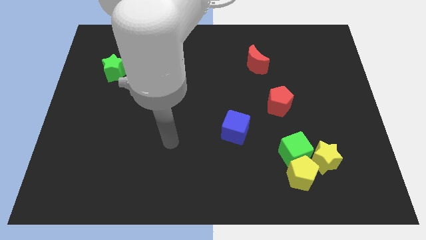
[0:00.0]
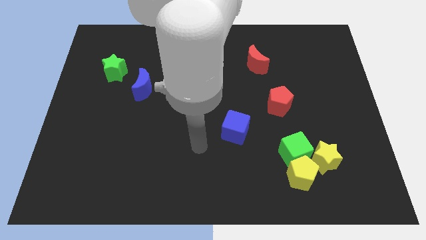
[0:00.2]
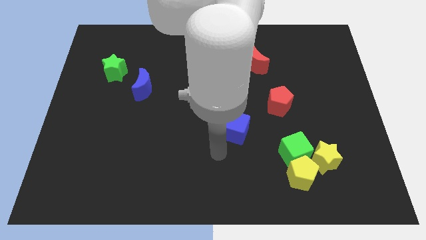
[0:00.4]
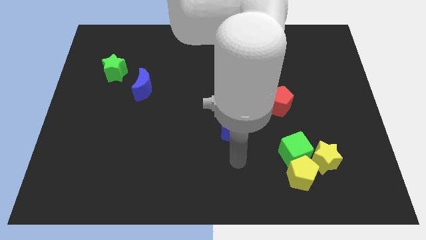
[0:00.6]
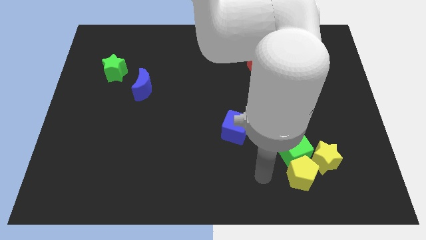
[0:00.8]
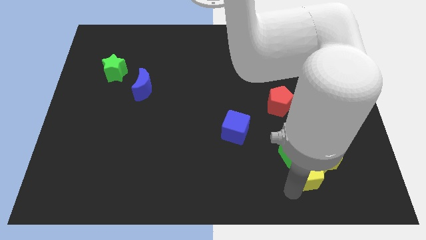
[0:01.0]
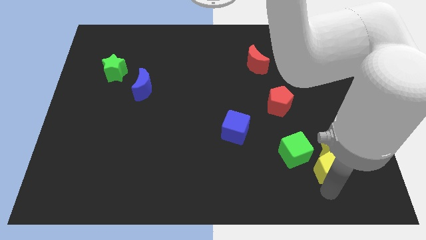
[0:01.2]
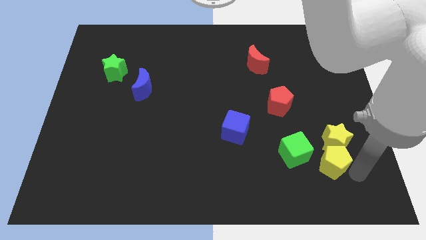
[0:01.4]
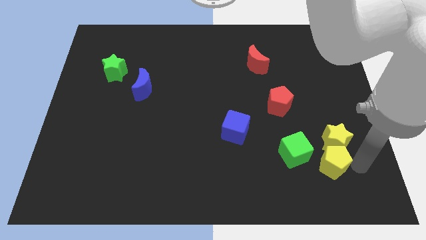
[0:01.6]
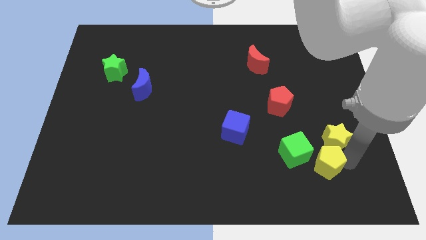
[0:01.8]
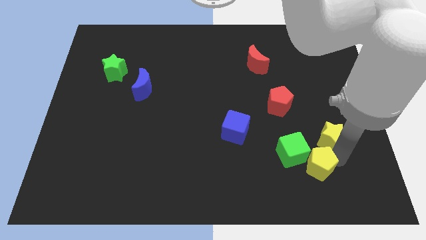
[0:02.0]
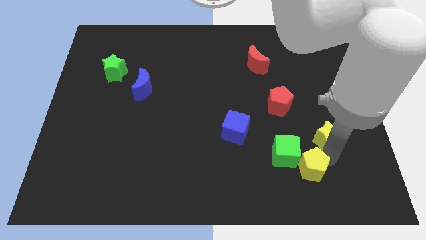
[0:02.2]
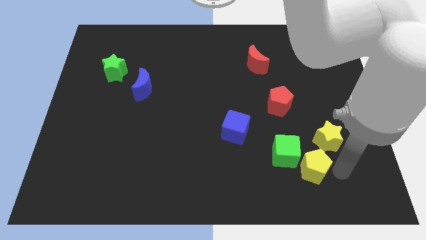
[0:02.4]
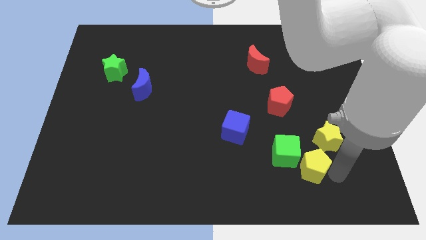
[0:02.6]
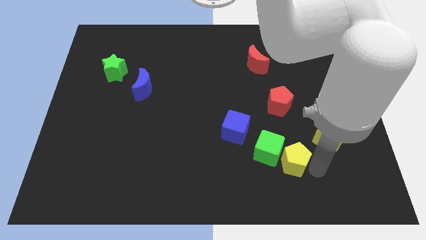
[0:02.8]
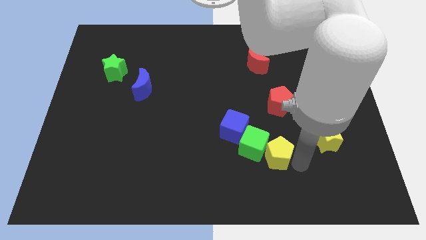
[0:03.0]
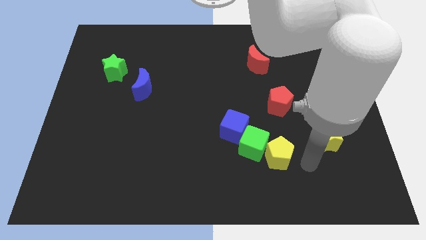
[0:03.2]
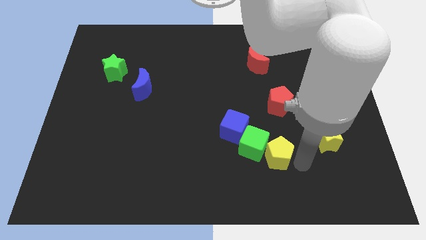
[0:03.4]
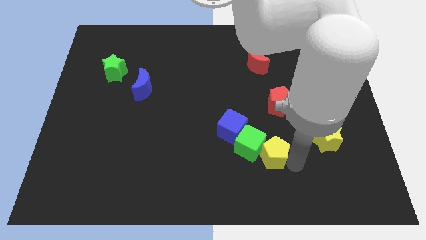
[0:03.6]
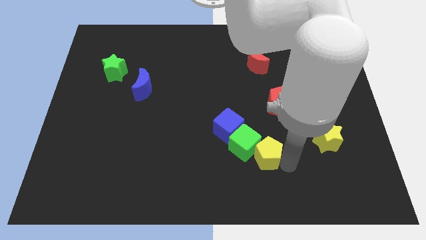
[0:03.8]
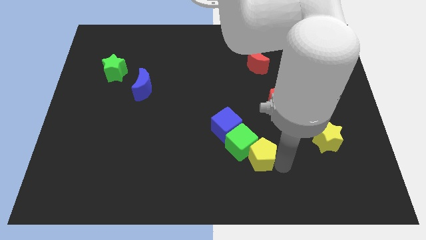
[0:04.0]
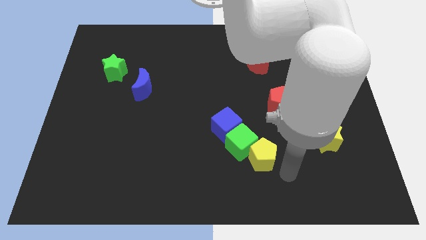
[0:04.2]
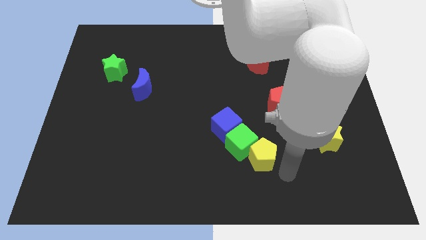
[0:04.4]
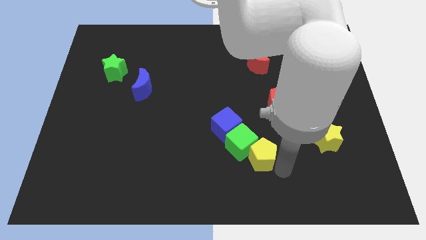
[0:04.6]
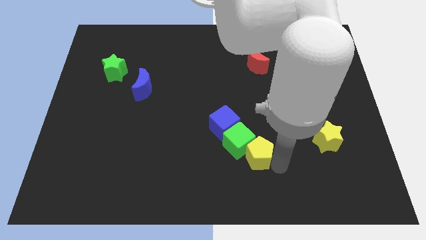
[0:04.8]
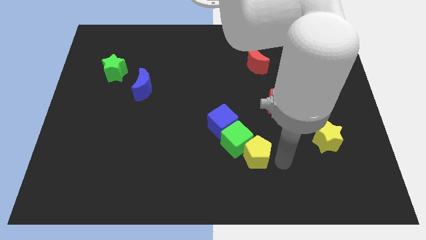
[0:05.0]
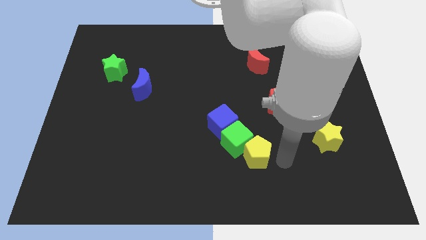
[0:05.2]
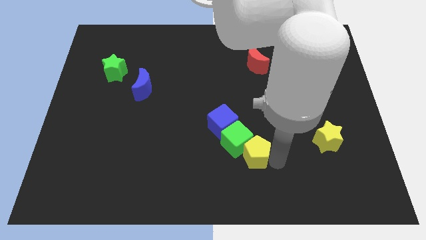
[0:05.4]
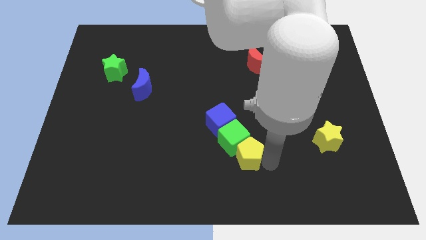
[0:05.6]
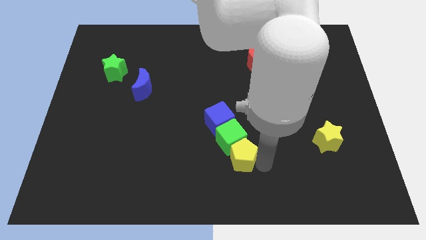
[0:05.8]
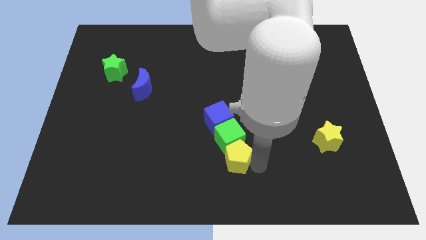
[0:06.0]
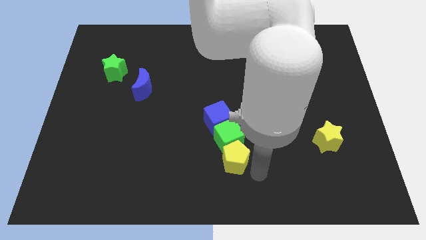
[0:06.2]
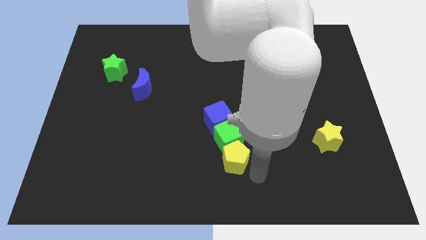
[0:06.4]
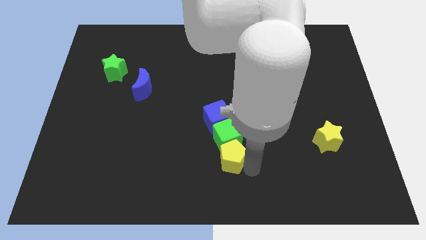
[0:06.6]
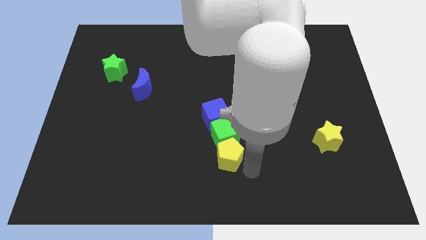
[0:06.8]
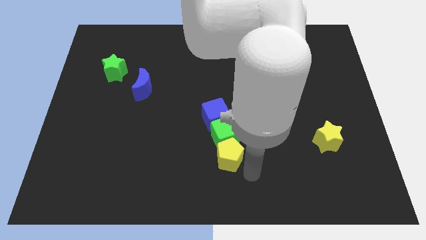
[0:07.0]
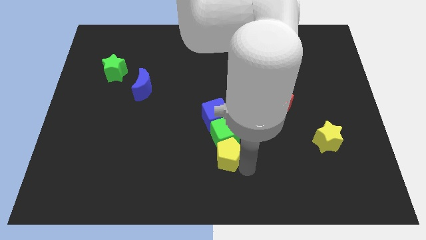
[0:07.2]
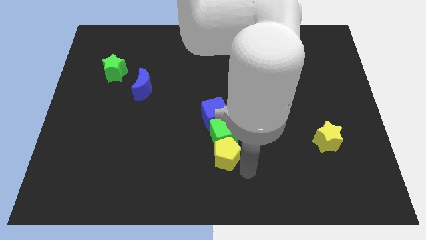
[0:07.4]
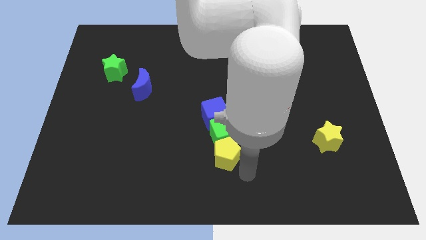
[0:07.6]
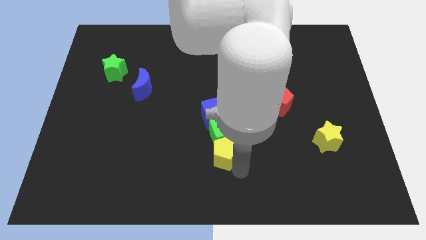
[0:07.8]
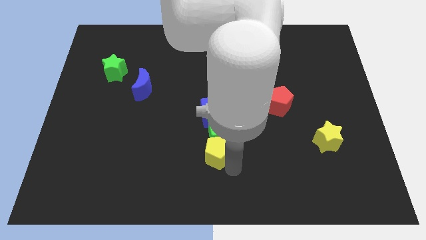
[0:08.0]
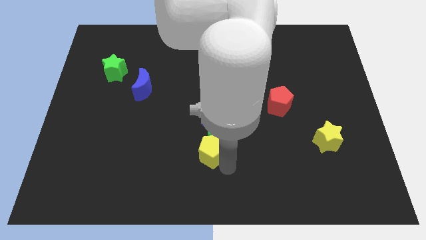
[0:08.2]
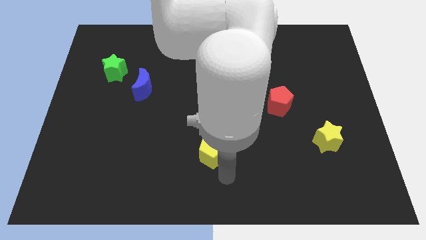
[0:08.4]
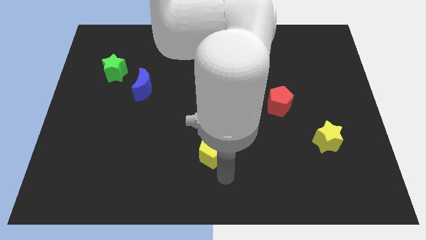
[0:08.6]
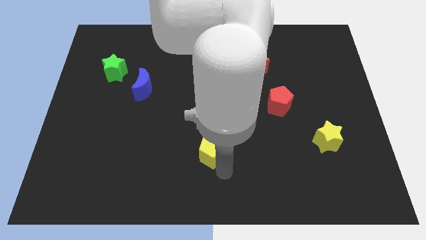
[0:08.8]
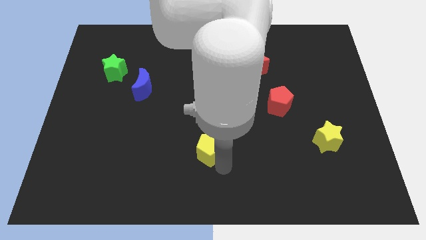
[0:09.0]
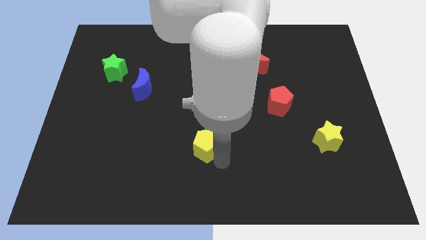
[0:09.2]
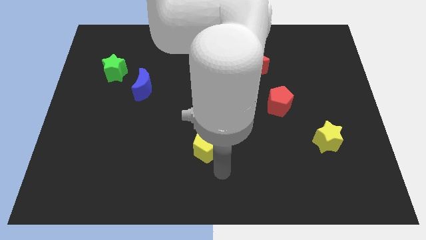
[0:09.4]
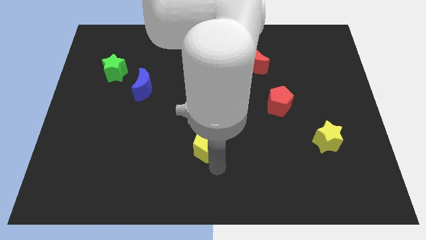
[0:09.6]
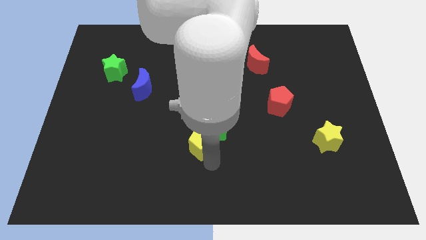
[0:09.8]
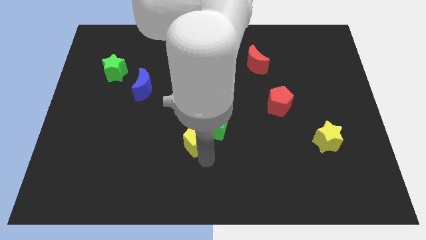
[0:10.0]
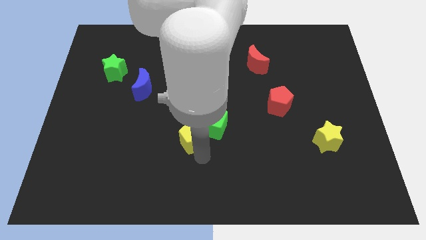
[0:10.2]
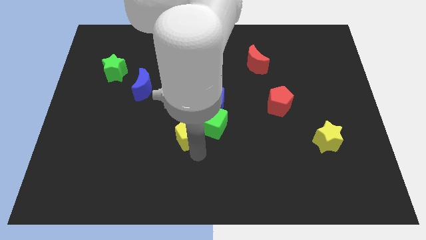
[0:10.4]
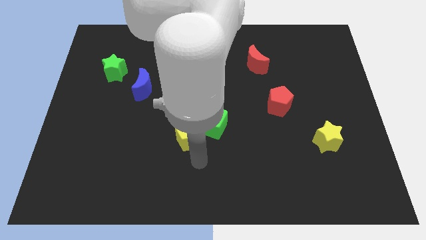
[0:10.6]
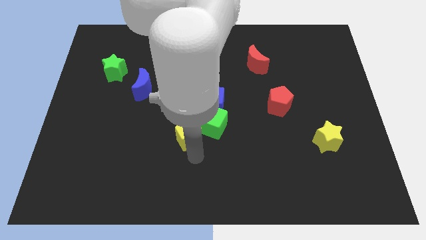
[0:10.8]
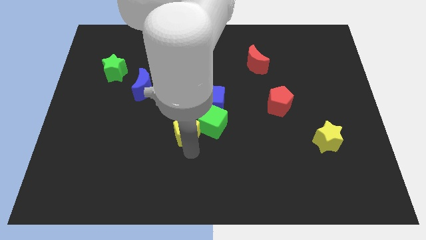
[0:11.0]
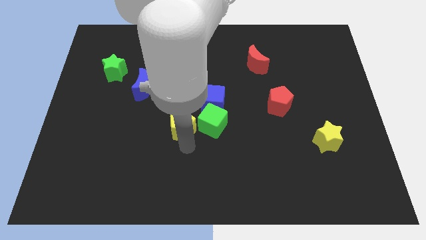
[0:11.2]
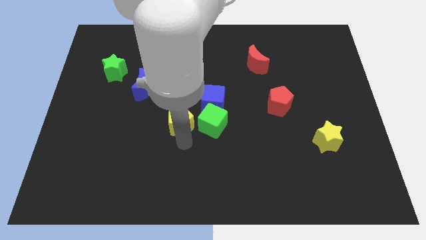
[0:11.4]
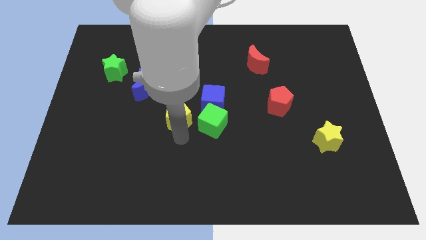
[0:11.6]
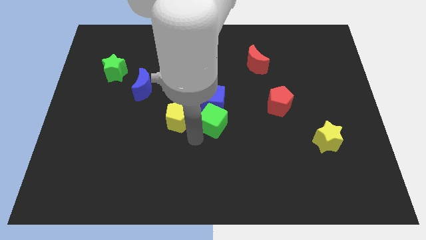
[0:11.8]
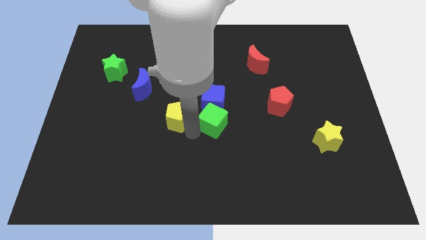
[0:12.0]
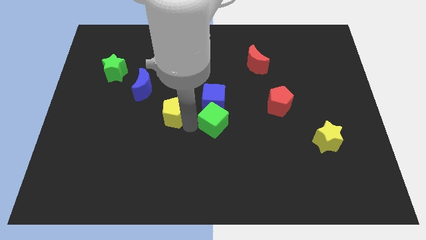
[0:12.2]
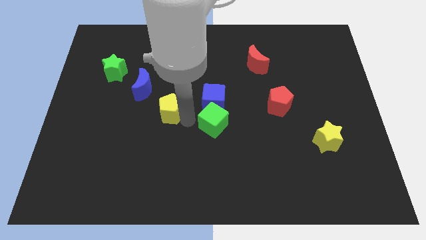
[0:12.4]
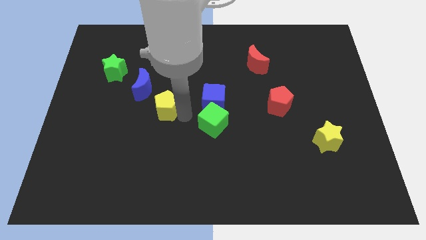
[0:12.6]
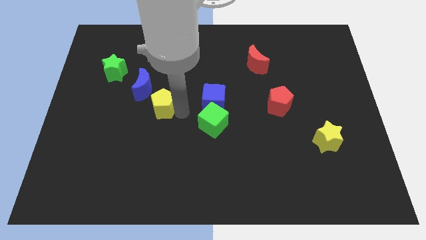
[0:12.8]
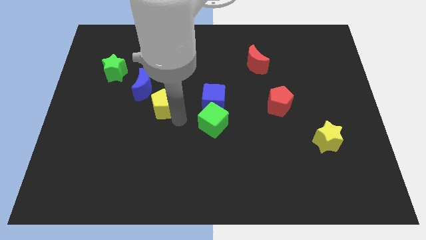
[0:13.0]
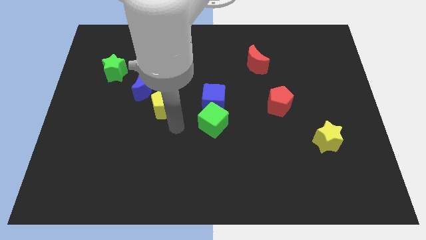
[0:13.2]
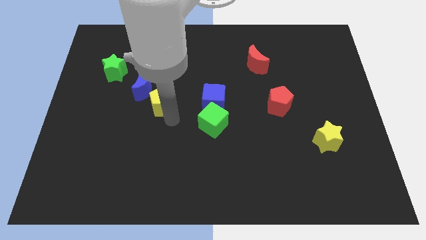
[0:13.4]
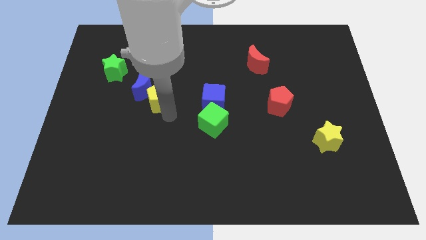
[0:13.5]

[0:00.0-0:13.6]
move the yellow pentagon next to the blue moon

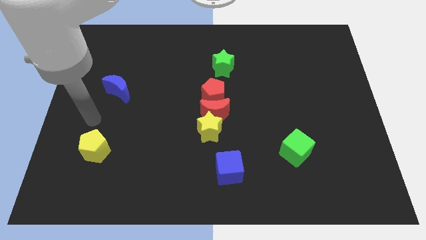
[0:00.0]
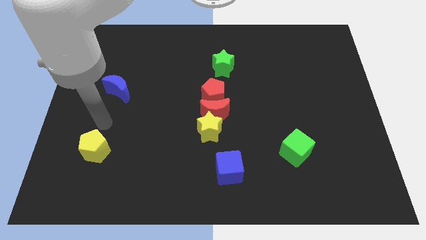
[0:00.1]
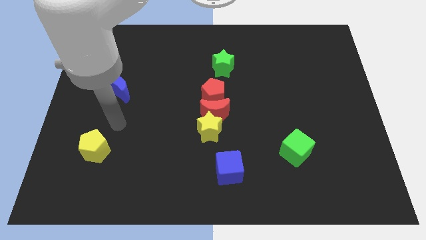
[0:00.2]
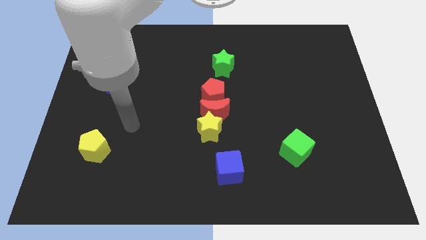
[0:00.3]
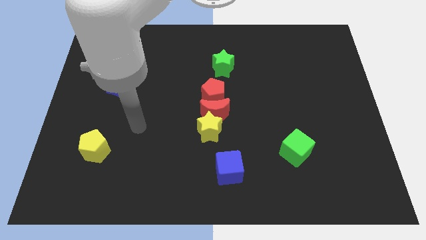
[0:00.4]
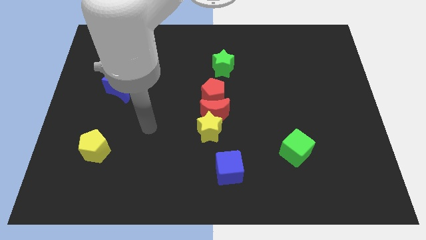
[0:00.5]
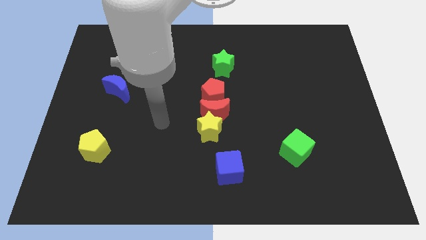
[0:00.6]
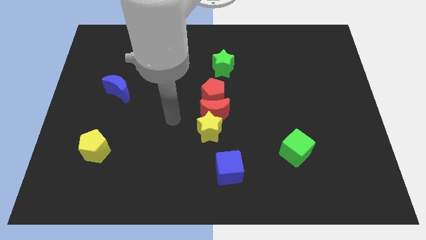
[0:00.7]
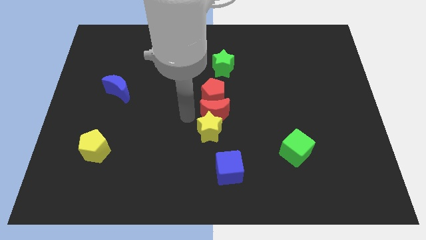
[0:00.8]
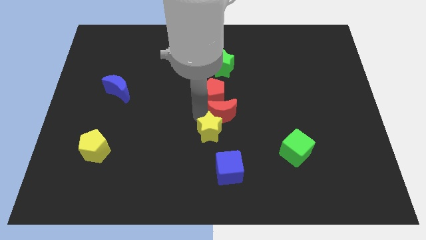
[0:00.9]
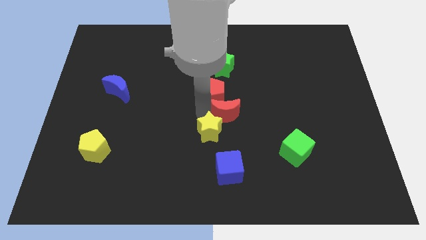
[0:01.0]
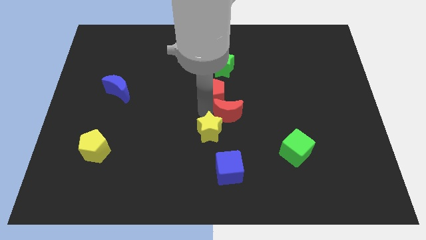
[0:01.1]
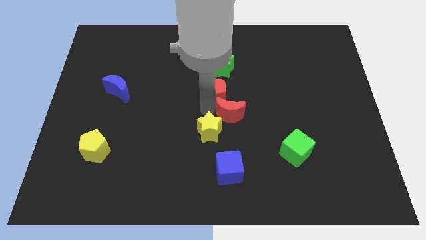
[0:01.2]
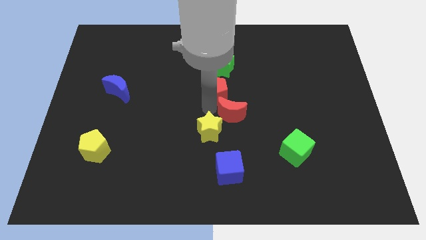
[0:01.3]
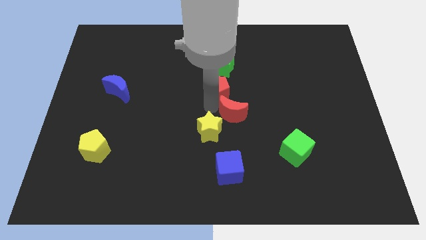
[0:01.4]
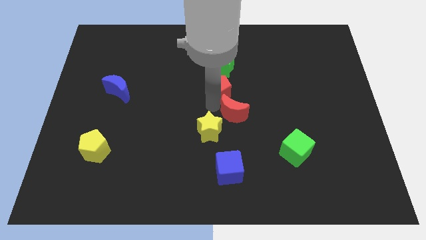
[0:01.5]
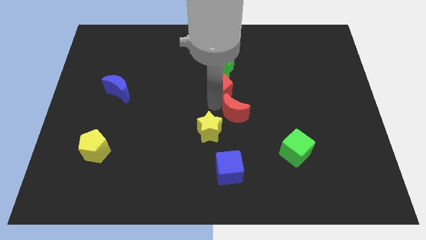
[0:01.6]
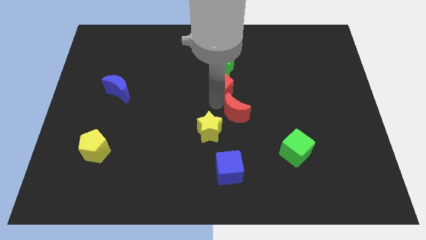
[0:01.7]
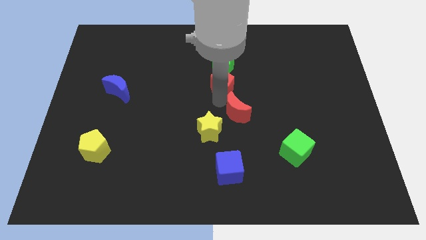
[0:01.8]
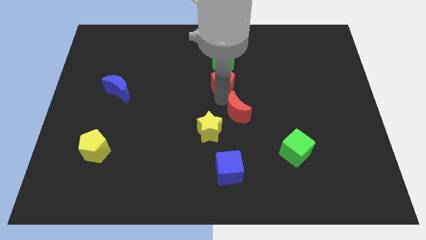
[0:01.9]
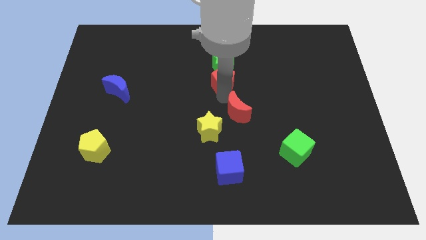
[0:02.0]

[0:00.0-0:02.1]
slide the red pentagon close to the green star
